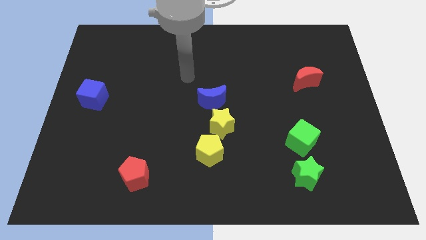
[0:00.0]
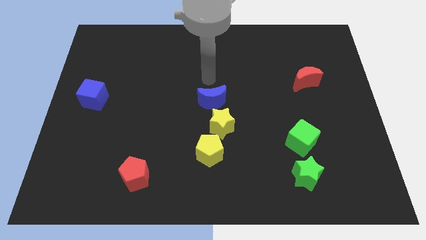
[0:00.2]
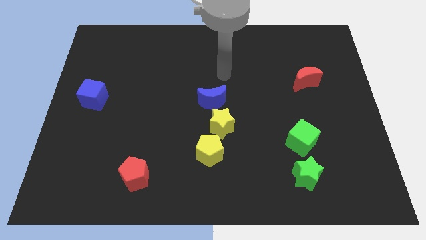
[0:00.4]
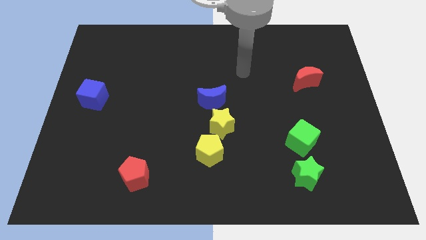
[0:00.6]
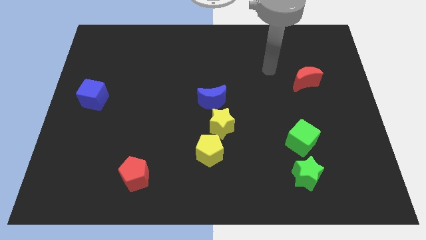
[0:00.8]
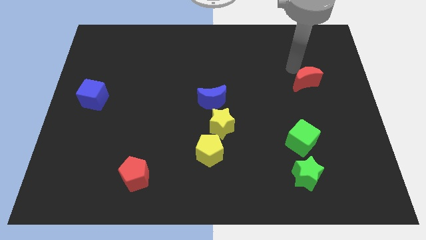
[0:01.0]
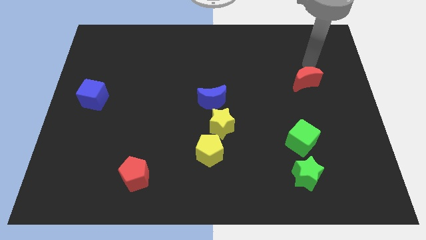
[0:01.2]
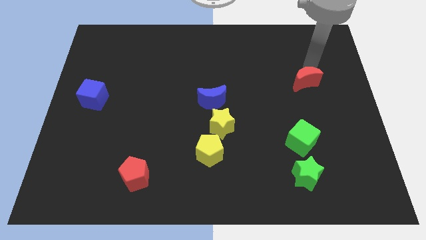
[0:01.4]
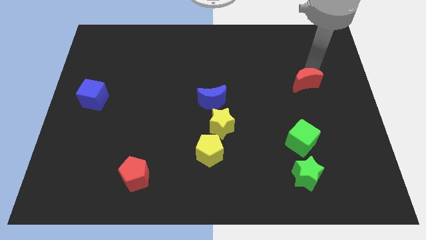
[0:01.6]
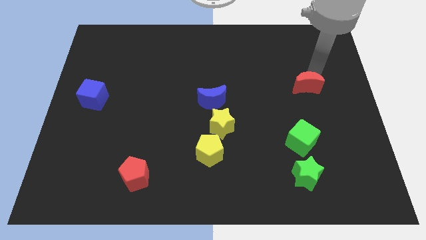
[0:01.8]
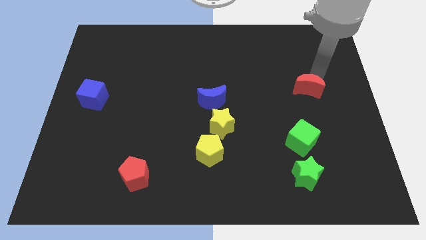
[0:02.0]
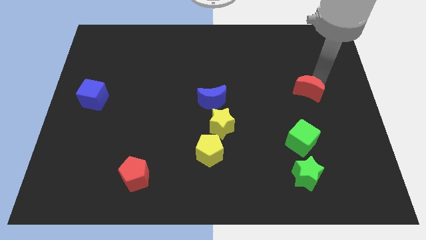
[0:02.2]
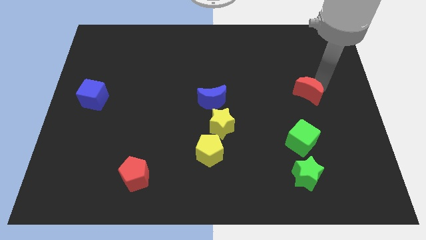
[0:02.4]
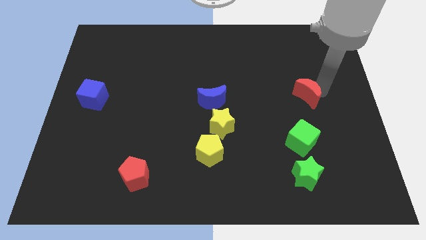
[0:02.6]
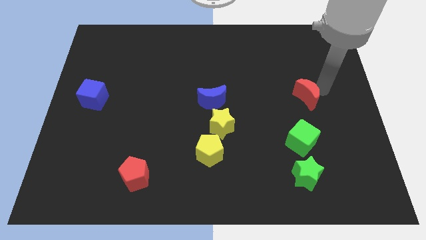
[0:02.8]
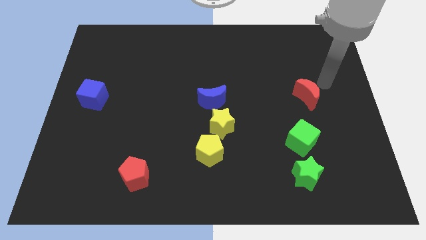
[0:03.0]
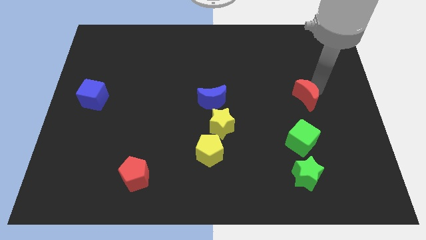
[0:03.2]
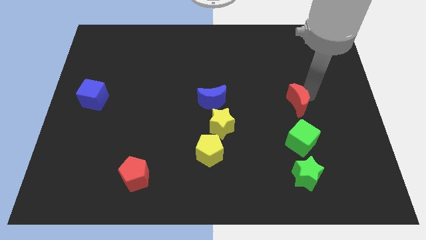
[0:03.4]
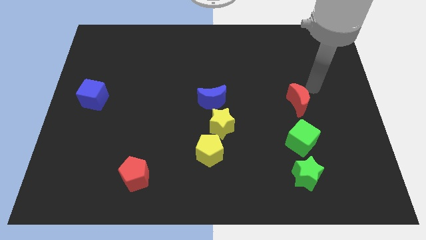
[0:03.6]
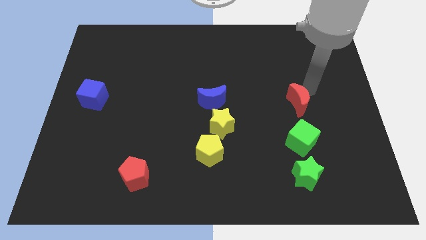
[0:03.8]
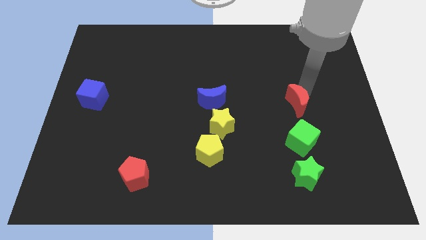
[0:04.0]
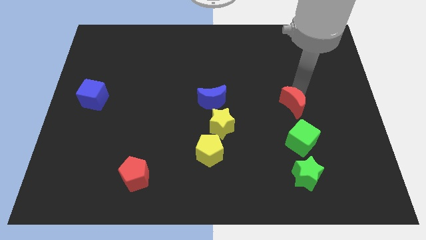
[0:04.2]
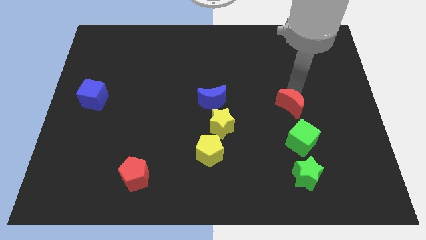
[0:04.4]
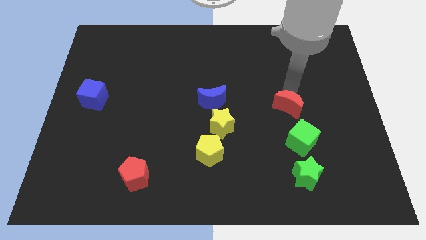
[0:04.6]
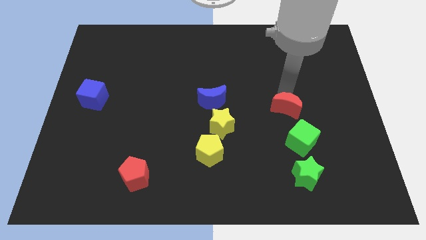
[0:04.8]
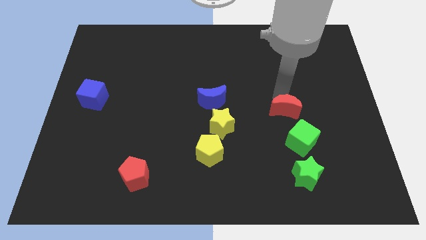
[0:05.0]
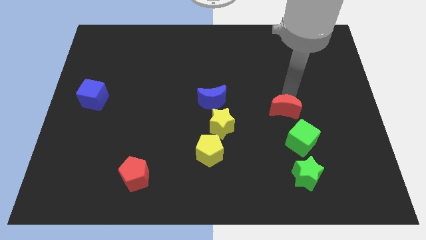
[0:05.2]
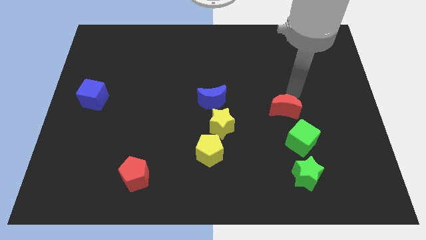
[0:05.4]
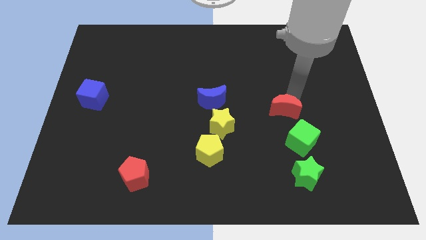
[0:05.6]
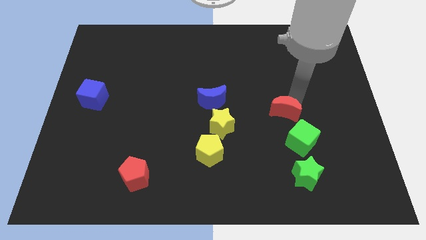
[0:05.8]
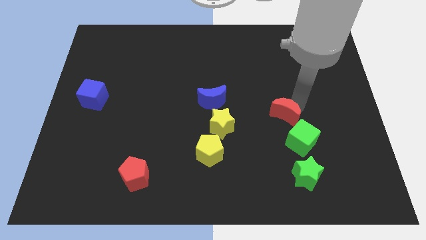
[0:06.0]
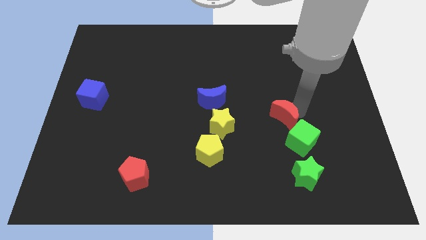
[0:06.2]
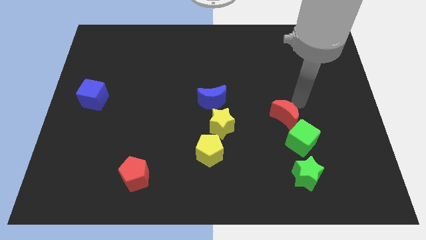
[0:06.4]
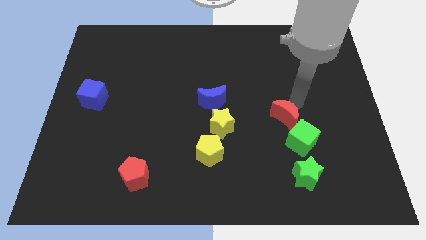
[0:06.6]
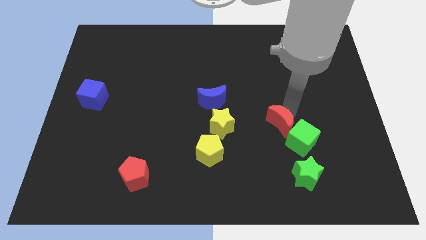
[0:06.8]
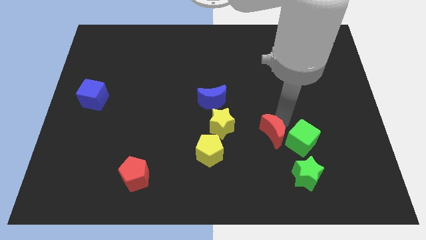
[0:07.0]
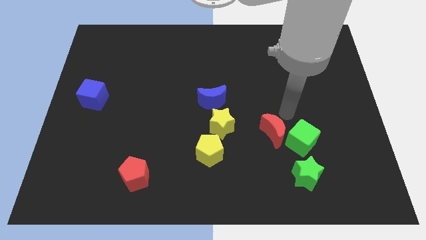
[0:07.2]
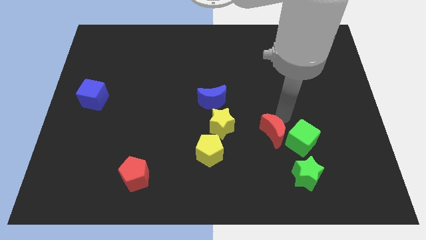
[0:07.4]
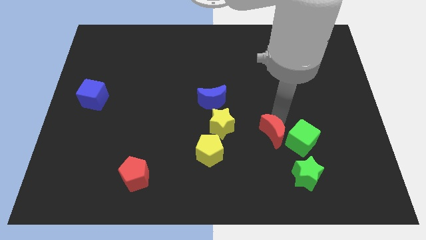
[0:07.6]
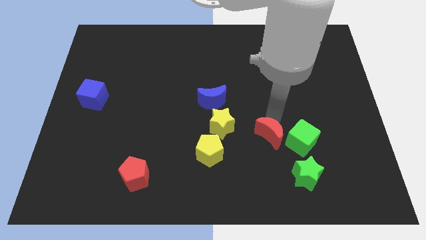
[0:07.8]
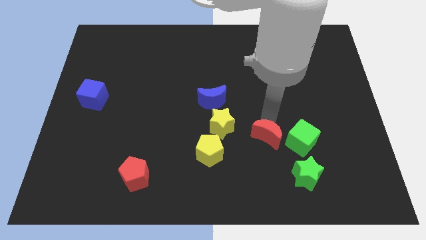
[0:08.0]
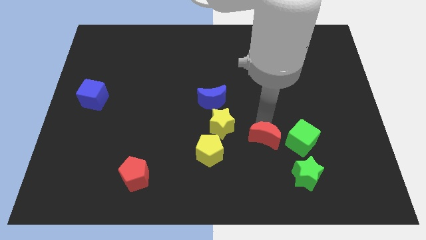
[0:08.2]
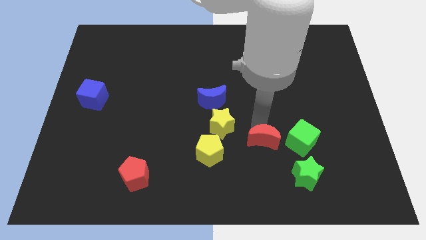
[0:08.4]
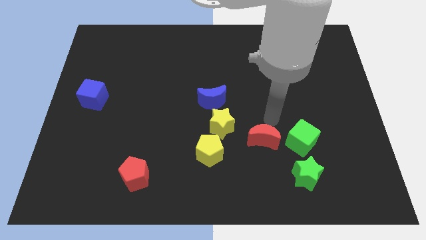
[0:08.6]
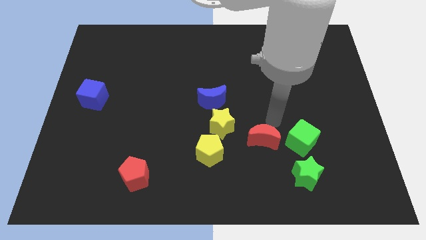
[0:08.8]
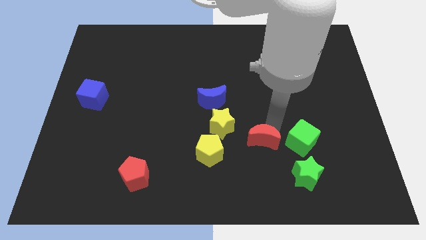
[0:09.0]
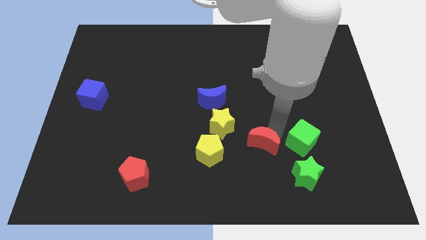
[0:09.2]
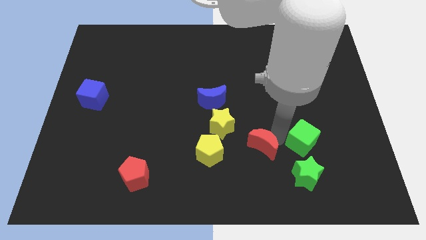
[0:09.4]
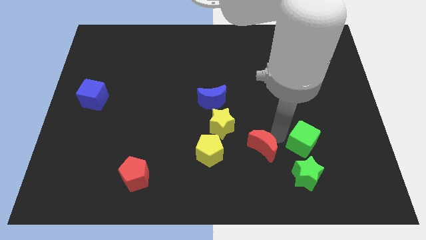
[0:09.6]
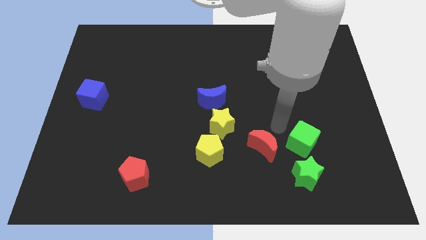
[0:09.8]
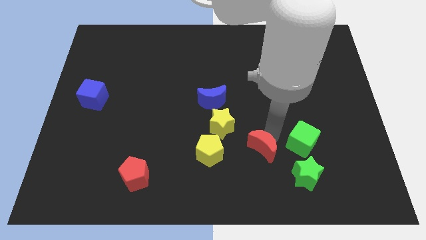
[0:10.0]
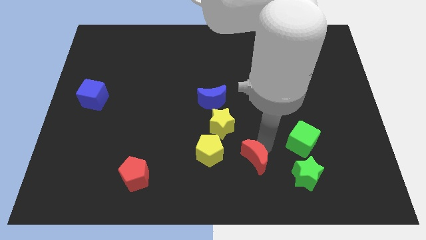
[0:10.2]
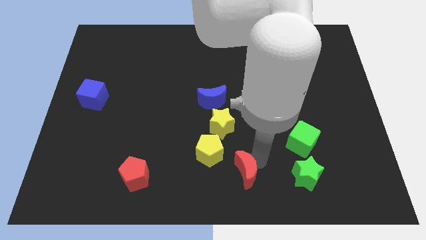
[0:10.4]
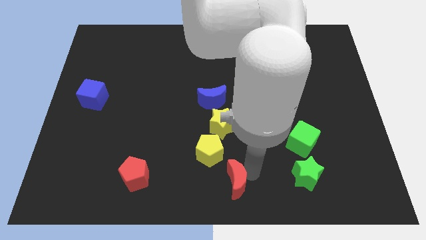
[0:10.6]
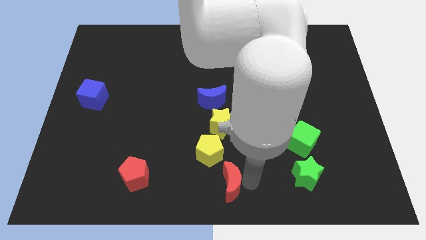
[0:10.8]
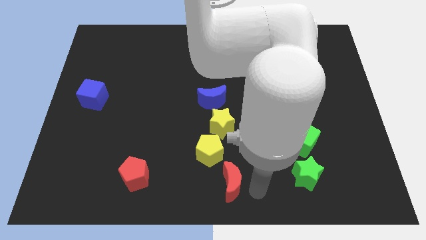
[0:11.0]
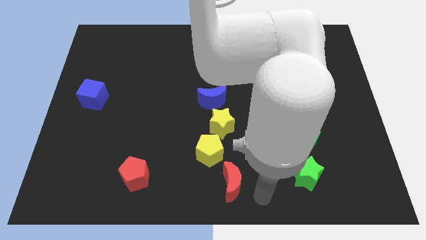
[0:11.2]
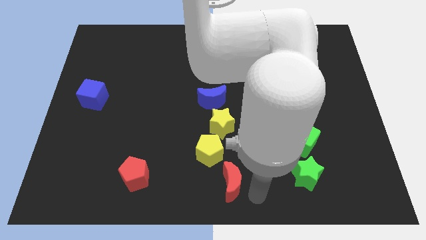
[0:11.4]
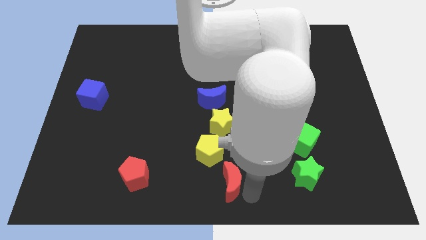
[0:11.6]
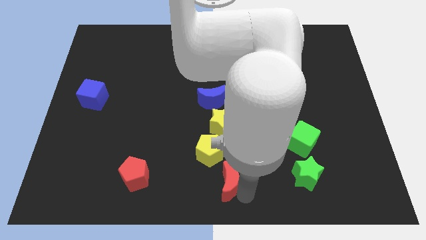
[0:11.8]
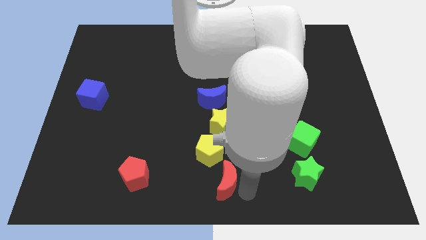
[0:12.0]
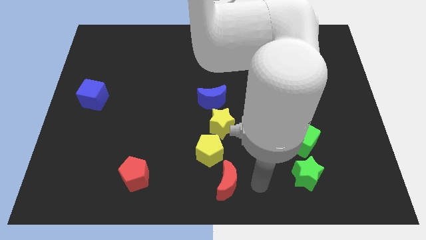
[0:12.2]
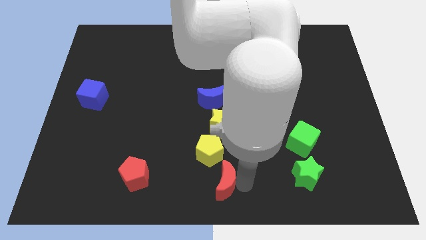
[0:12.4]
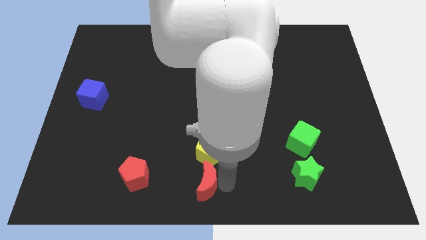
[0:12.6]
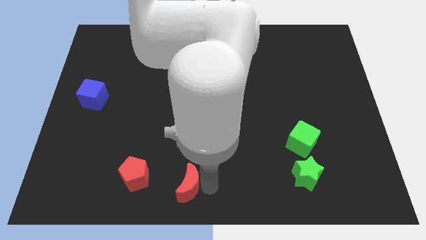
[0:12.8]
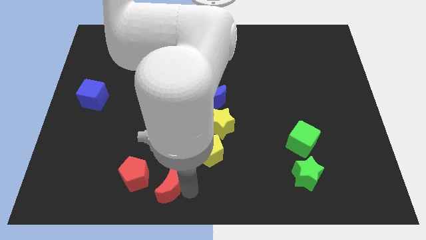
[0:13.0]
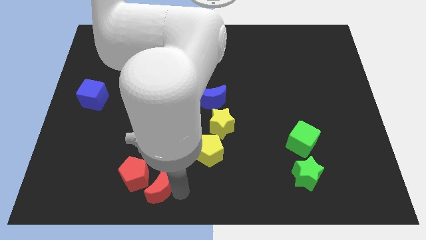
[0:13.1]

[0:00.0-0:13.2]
move the red moon next to the red pentagon

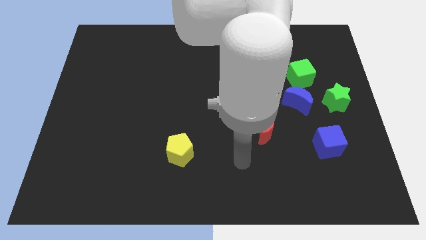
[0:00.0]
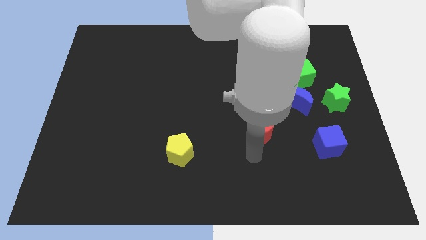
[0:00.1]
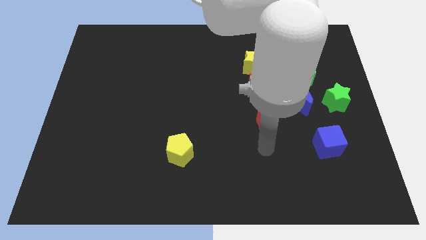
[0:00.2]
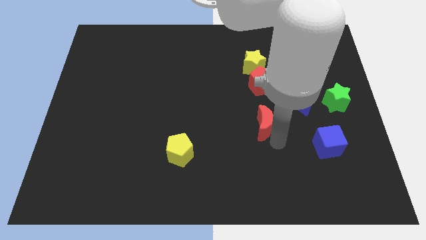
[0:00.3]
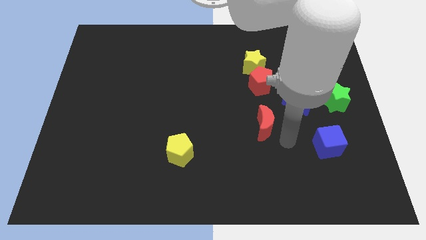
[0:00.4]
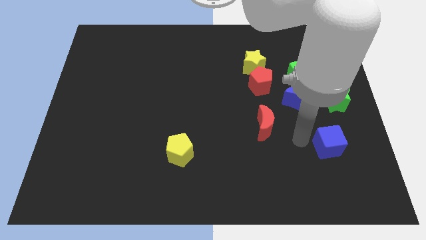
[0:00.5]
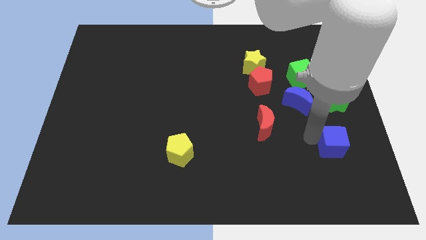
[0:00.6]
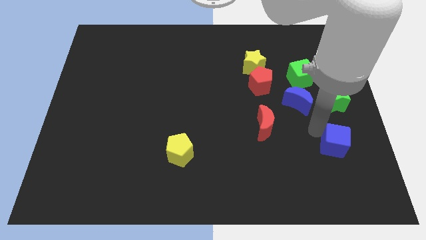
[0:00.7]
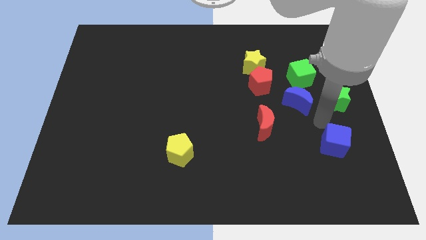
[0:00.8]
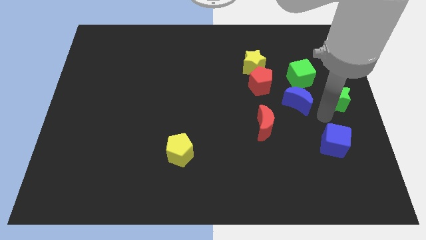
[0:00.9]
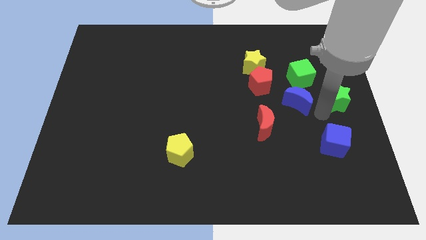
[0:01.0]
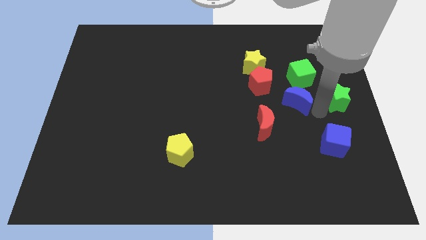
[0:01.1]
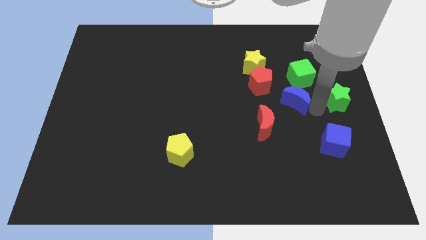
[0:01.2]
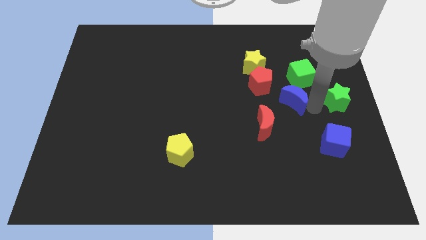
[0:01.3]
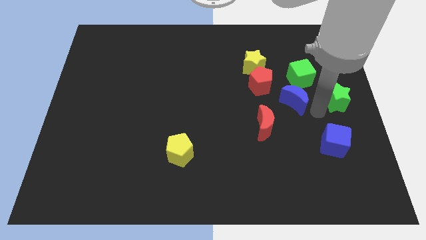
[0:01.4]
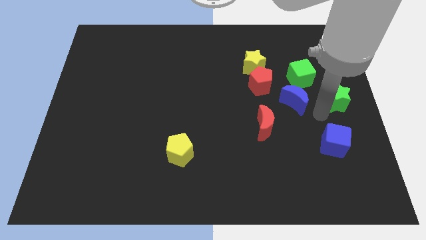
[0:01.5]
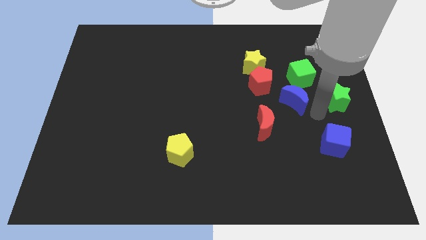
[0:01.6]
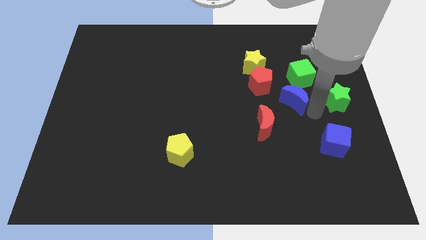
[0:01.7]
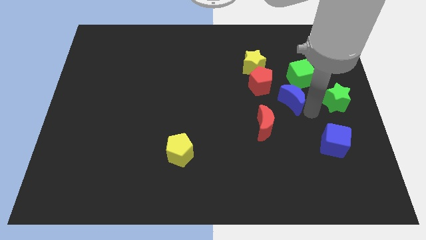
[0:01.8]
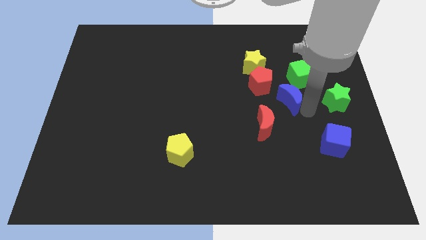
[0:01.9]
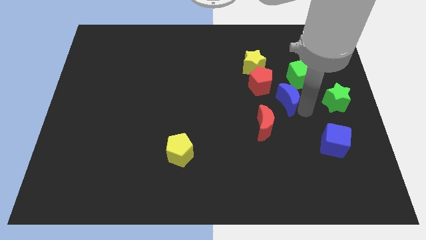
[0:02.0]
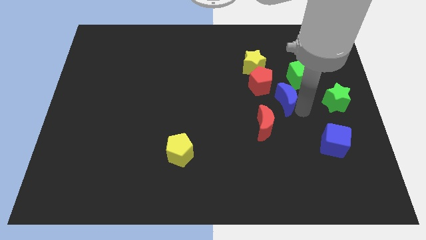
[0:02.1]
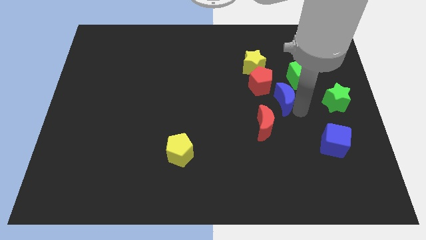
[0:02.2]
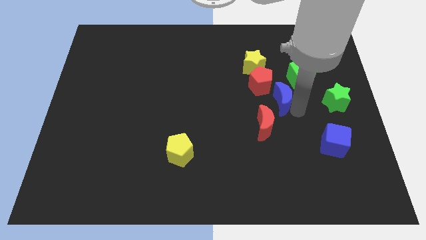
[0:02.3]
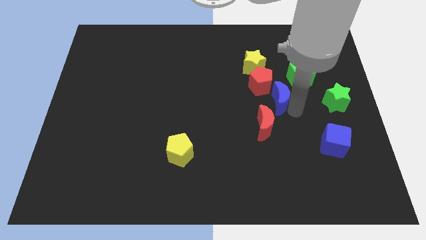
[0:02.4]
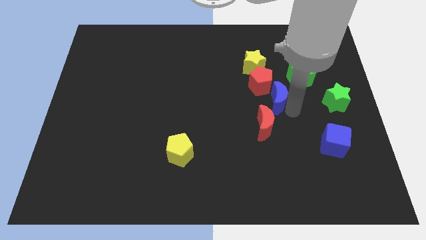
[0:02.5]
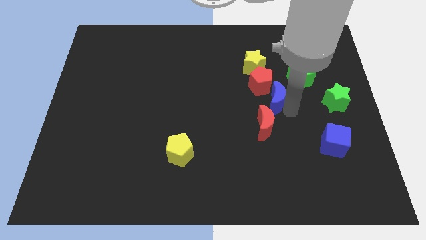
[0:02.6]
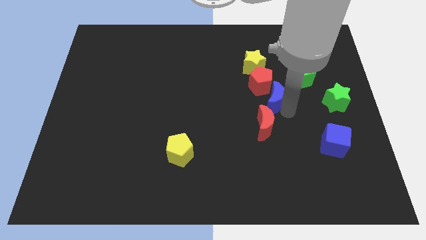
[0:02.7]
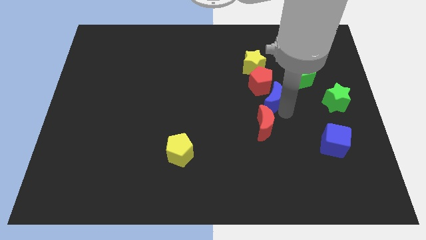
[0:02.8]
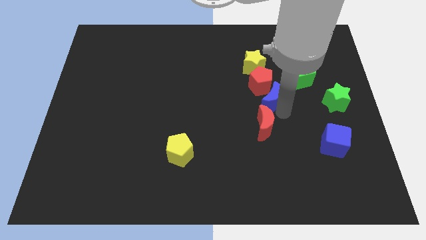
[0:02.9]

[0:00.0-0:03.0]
move the blue moon to the red pentagon
